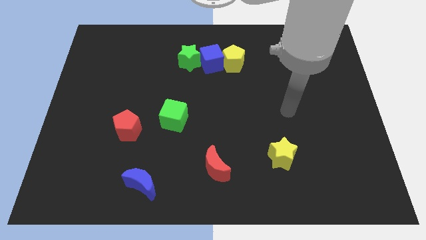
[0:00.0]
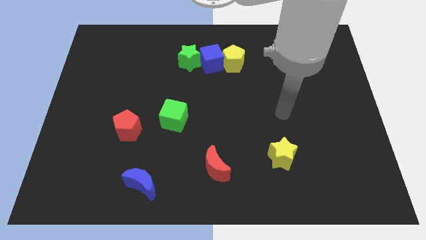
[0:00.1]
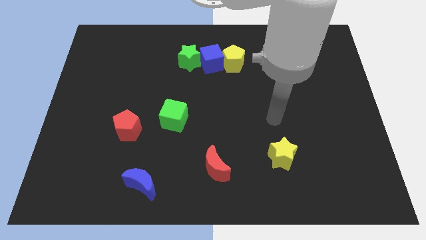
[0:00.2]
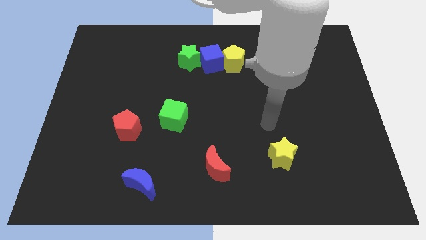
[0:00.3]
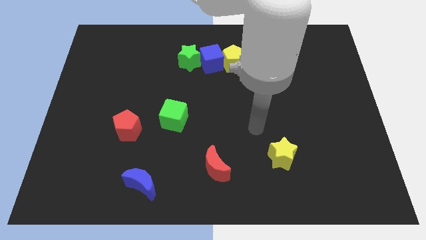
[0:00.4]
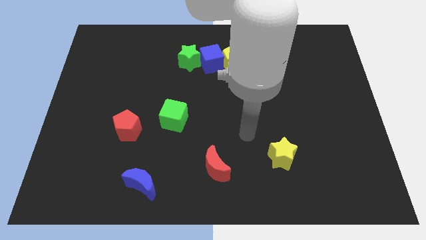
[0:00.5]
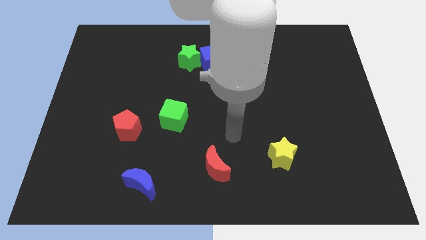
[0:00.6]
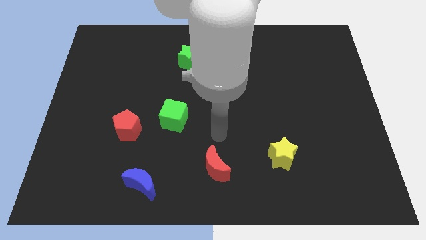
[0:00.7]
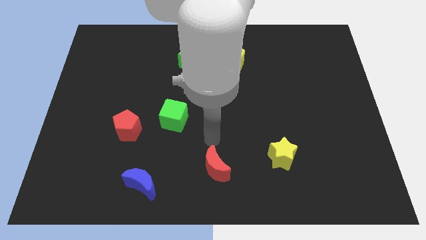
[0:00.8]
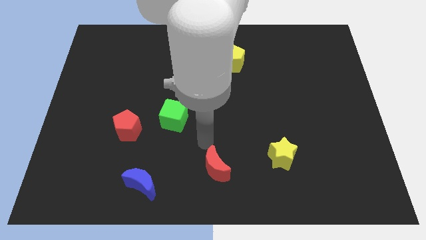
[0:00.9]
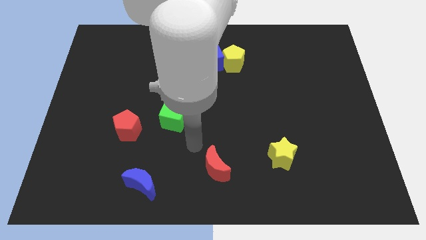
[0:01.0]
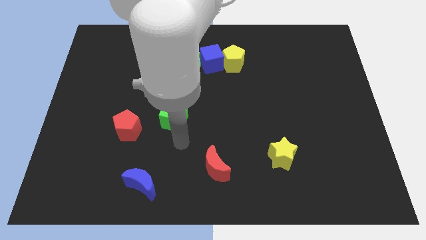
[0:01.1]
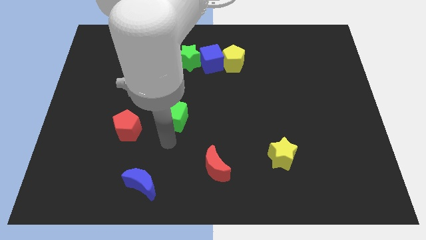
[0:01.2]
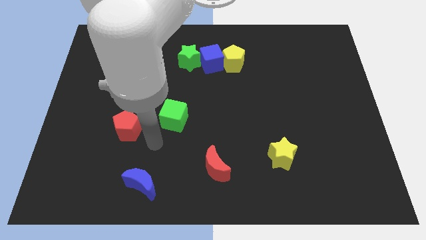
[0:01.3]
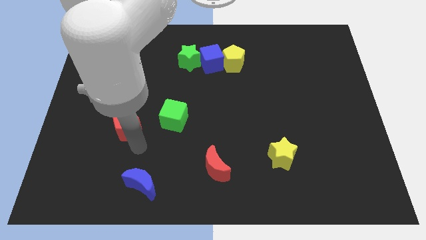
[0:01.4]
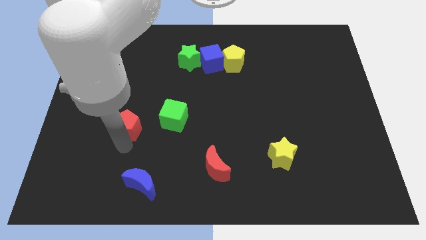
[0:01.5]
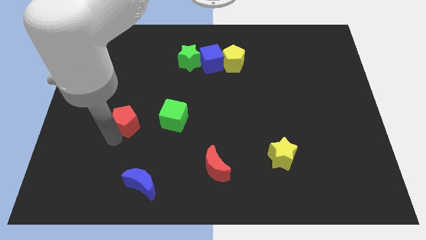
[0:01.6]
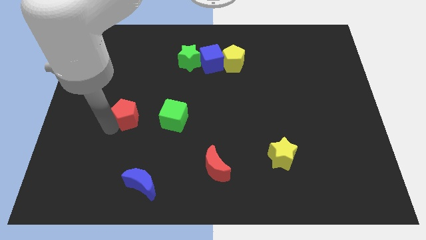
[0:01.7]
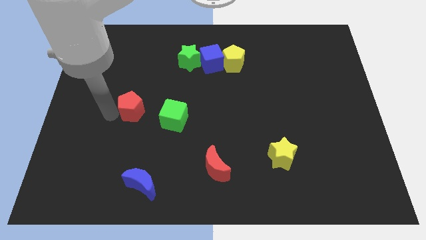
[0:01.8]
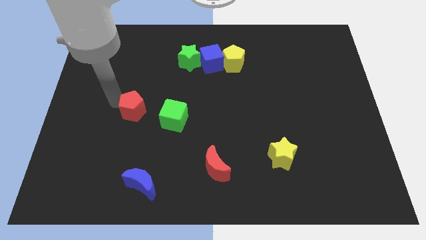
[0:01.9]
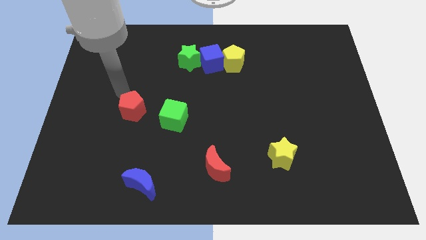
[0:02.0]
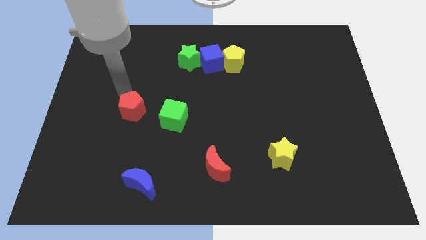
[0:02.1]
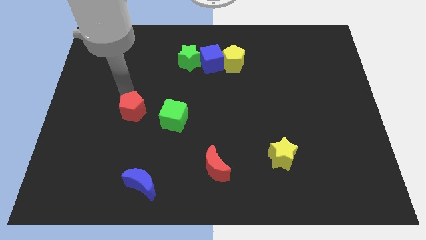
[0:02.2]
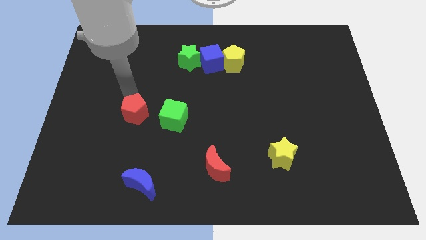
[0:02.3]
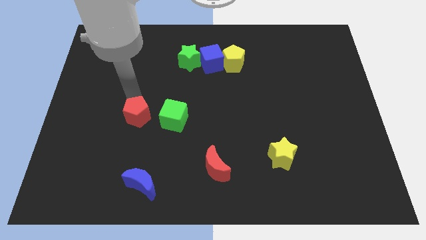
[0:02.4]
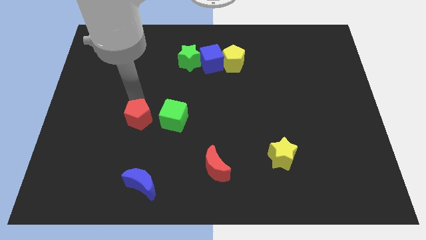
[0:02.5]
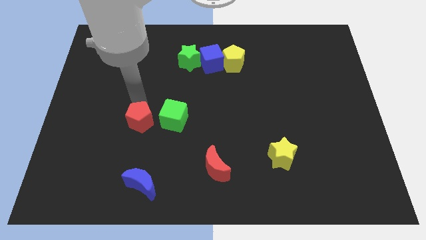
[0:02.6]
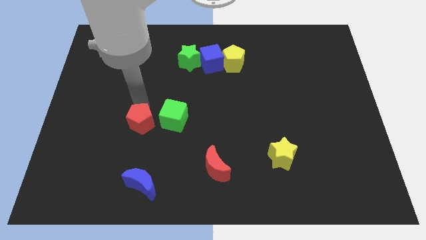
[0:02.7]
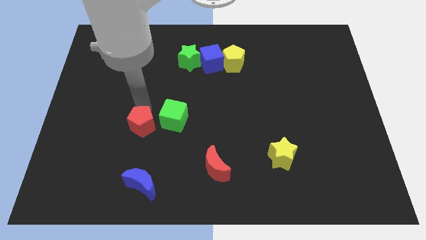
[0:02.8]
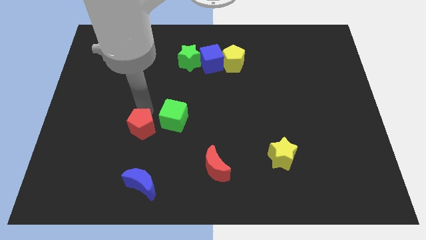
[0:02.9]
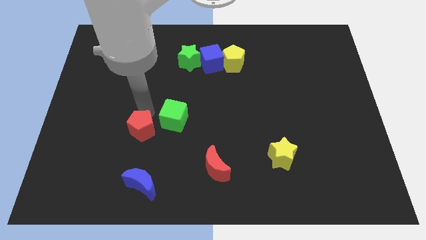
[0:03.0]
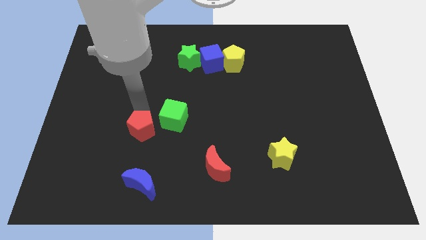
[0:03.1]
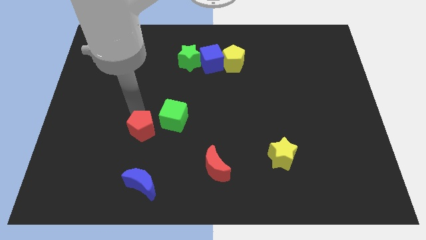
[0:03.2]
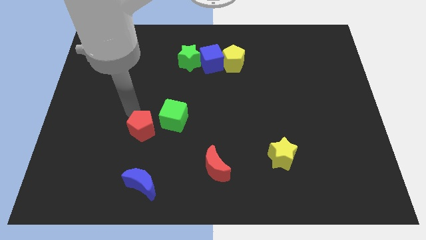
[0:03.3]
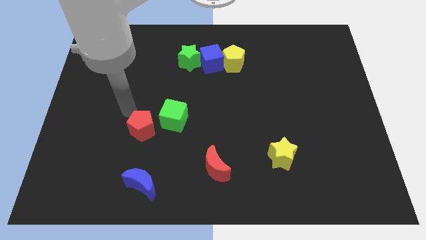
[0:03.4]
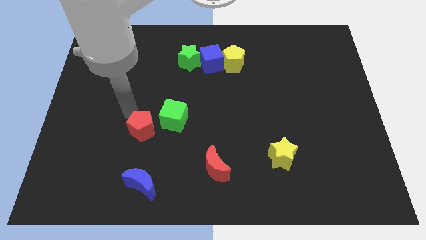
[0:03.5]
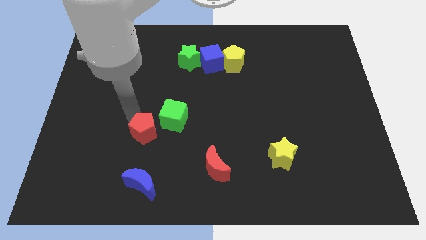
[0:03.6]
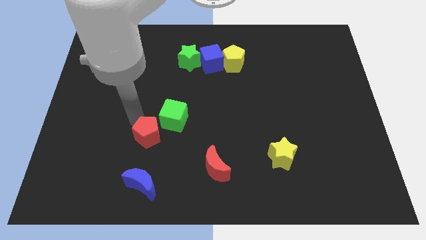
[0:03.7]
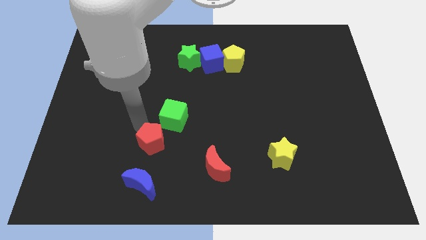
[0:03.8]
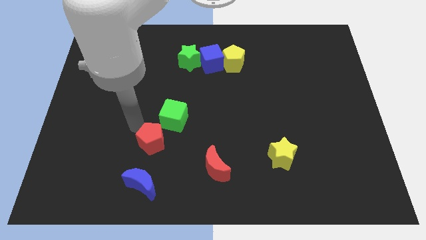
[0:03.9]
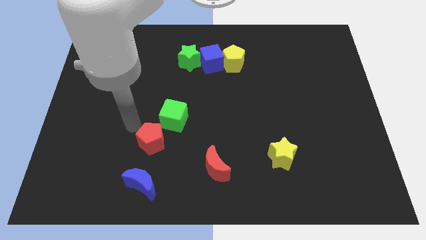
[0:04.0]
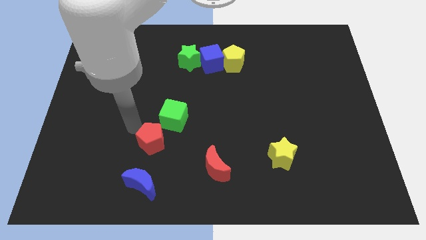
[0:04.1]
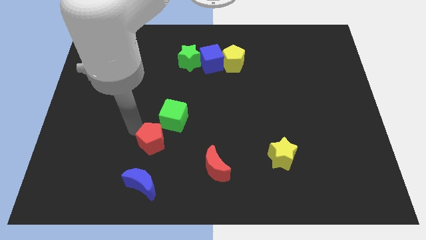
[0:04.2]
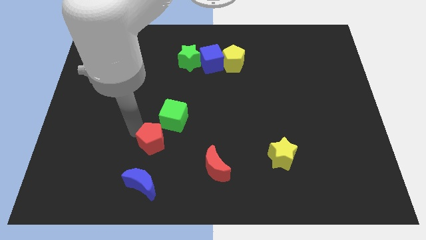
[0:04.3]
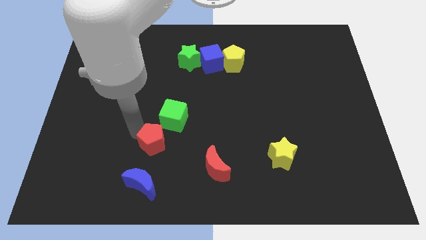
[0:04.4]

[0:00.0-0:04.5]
move the red pentagon a little bit diagonally down and to the right

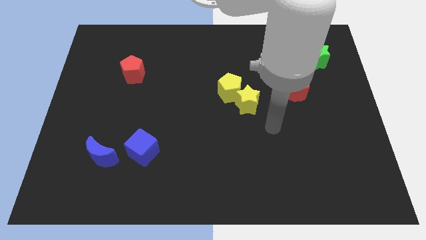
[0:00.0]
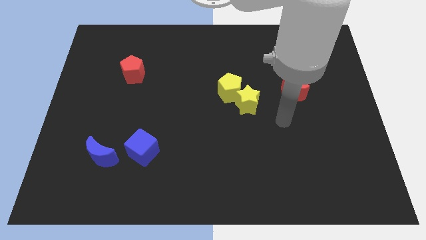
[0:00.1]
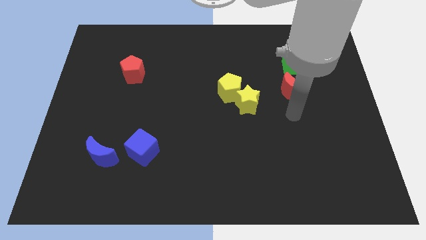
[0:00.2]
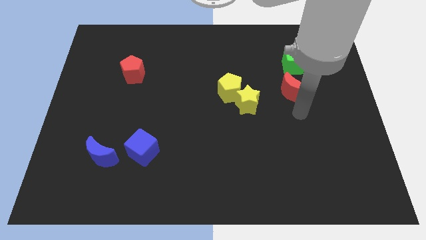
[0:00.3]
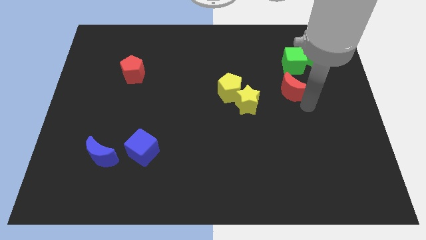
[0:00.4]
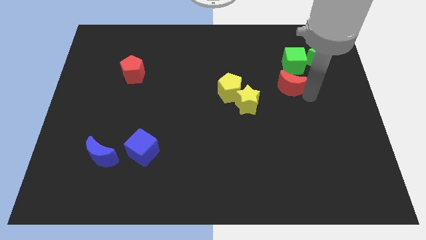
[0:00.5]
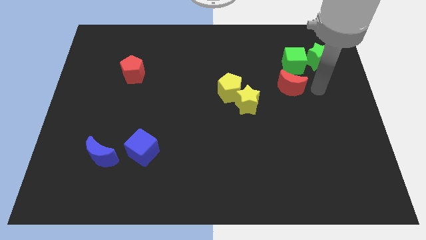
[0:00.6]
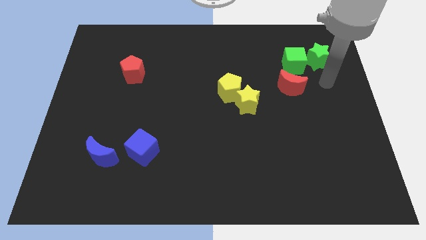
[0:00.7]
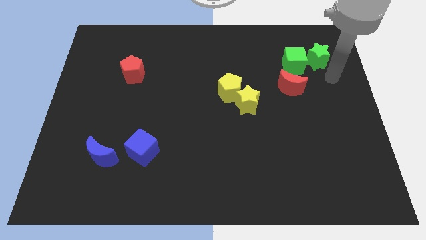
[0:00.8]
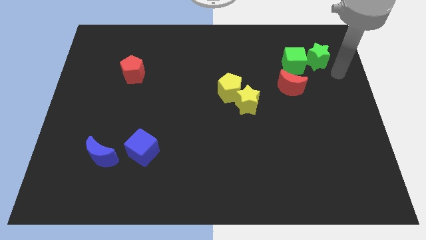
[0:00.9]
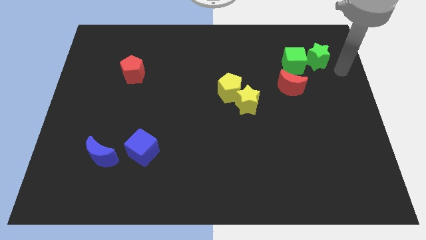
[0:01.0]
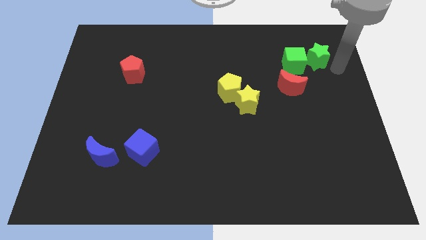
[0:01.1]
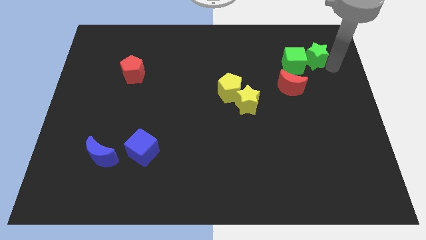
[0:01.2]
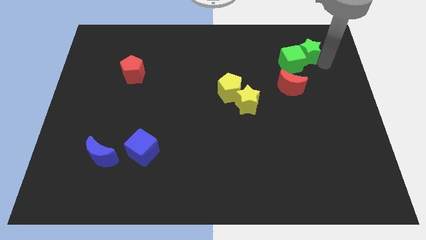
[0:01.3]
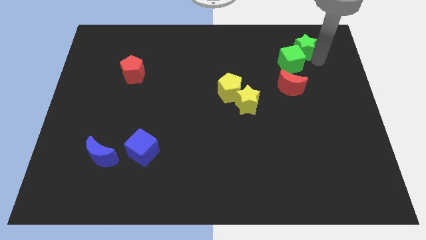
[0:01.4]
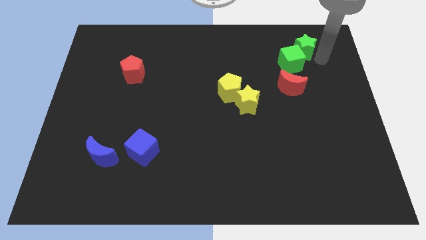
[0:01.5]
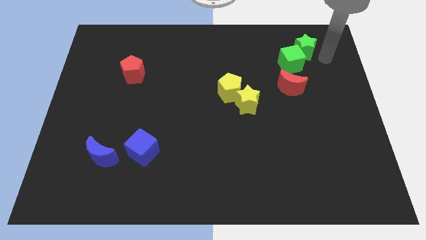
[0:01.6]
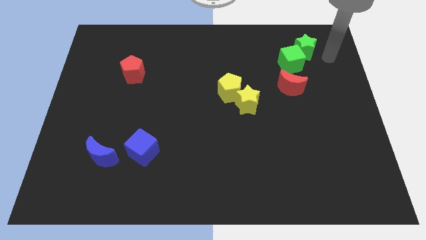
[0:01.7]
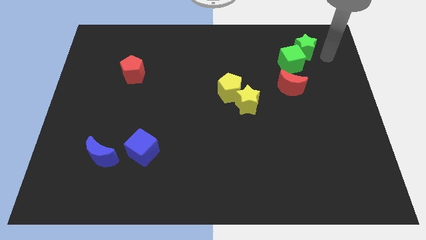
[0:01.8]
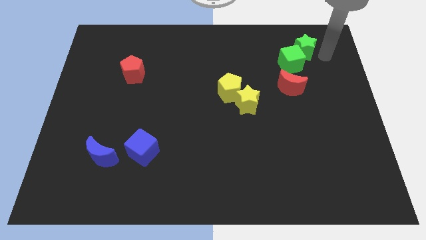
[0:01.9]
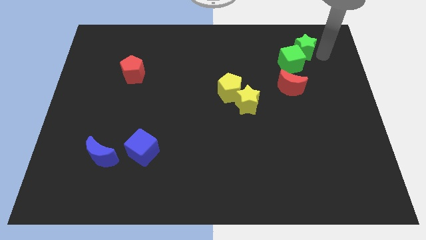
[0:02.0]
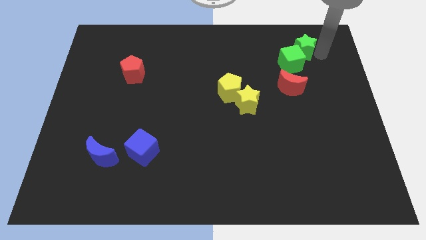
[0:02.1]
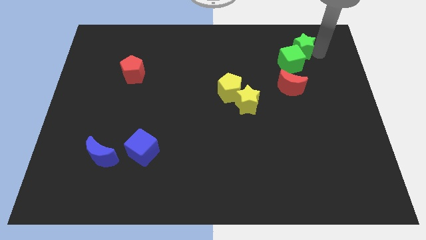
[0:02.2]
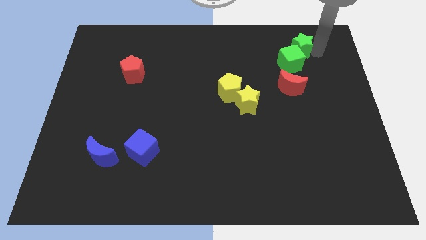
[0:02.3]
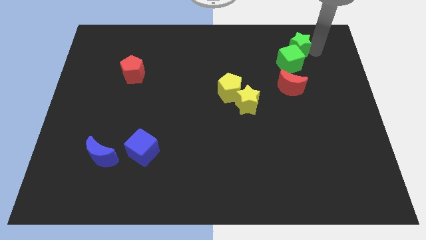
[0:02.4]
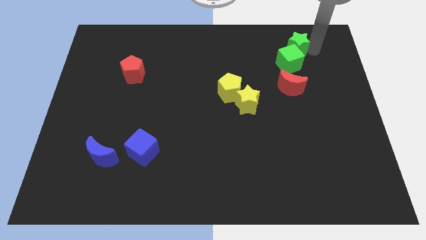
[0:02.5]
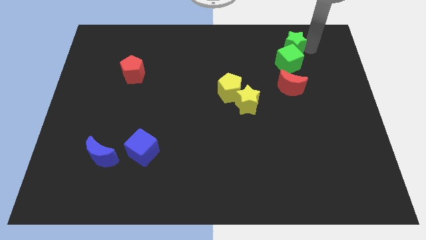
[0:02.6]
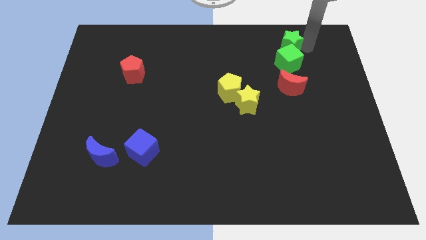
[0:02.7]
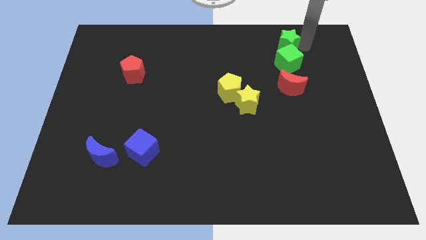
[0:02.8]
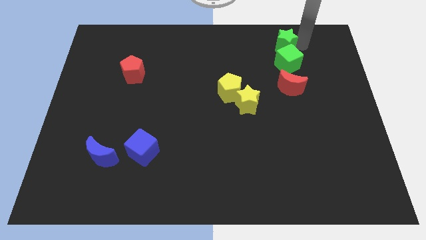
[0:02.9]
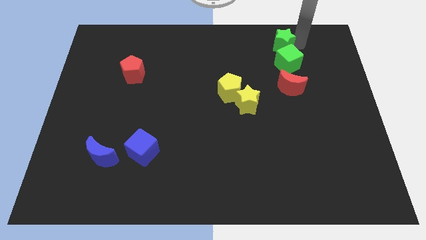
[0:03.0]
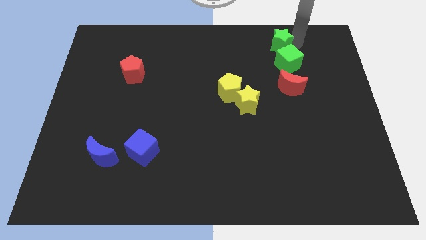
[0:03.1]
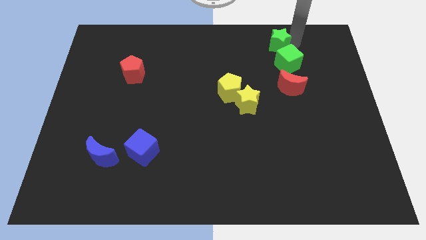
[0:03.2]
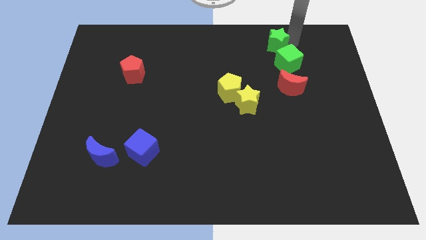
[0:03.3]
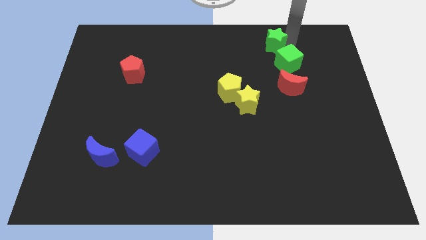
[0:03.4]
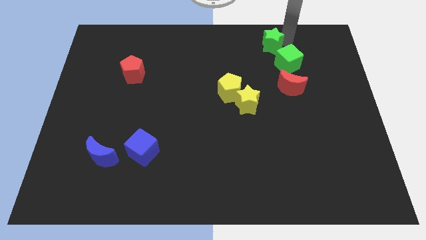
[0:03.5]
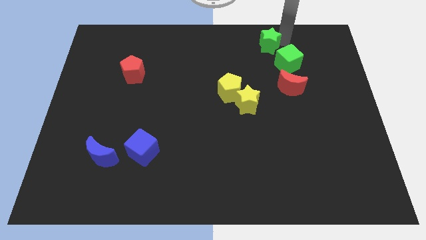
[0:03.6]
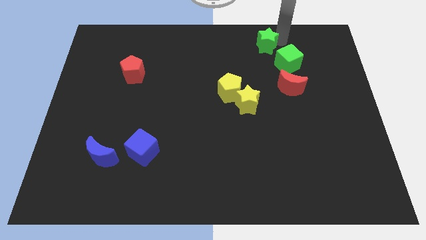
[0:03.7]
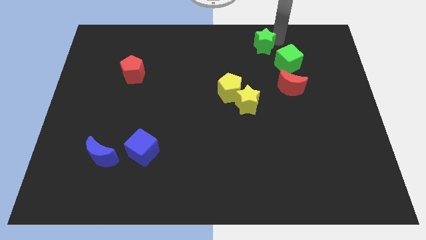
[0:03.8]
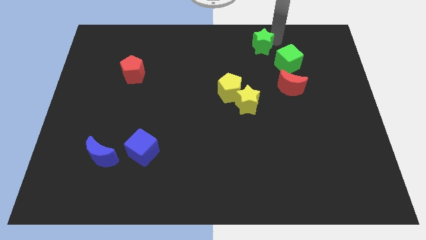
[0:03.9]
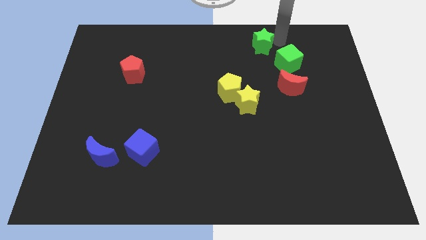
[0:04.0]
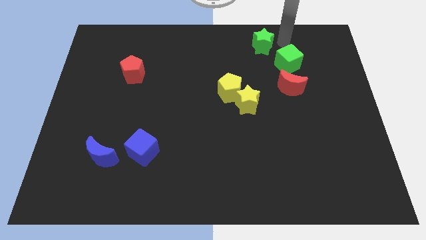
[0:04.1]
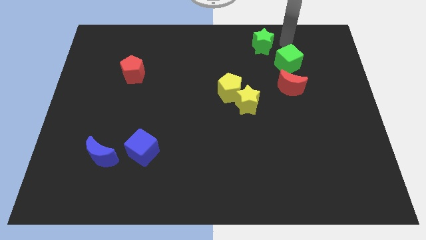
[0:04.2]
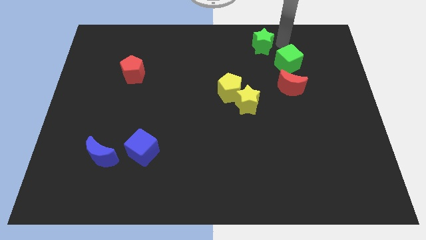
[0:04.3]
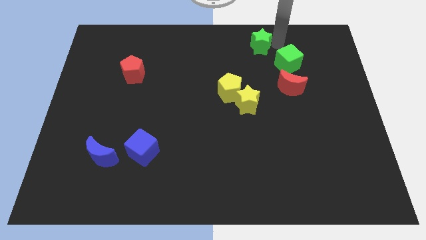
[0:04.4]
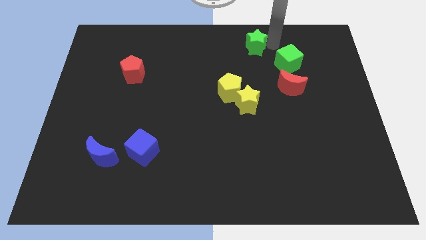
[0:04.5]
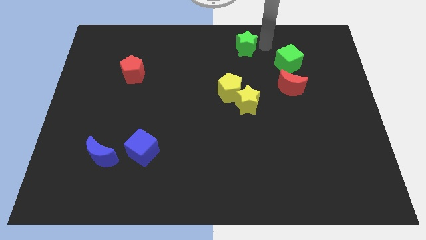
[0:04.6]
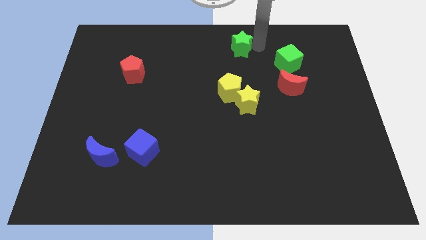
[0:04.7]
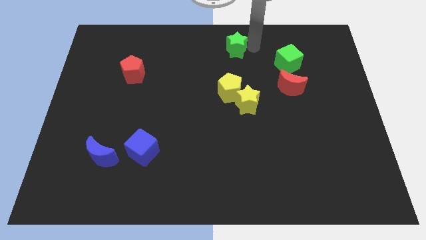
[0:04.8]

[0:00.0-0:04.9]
slide the green star left
